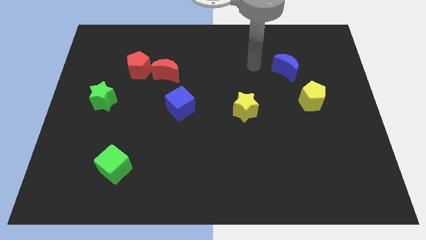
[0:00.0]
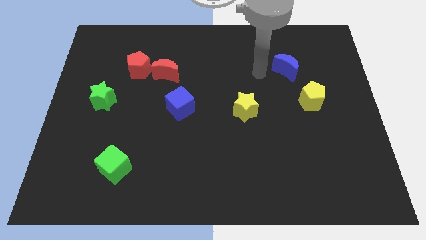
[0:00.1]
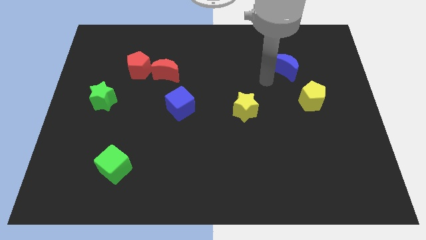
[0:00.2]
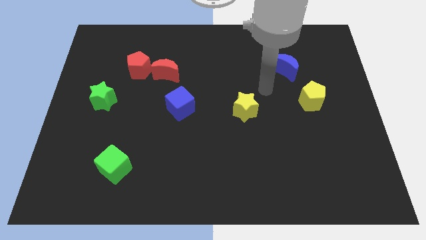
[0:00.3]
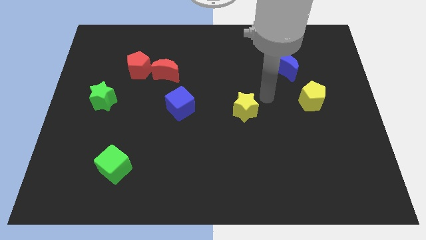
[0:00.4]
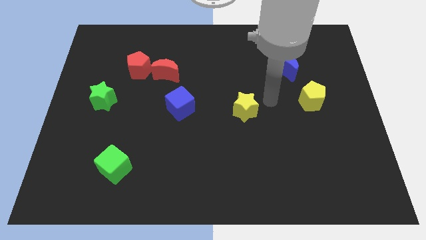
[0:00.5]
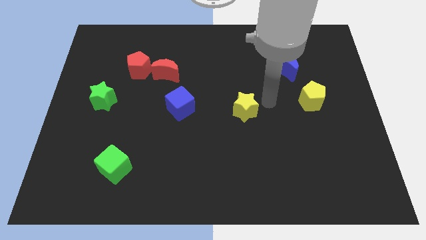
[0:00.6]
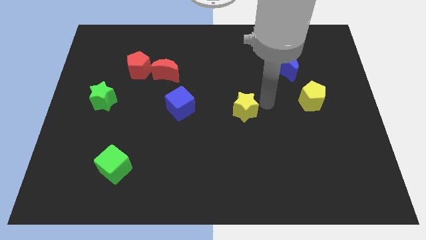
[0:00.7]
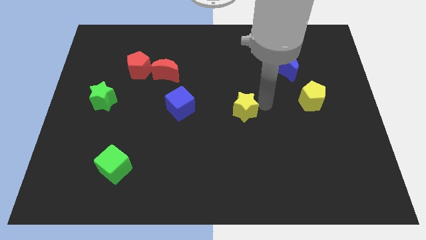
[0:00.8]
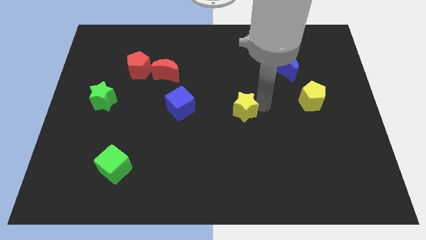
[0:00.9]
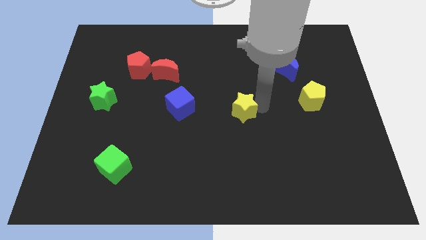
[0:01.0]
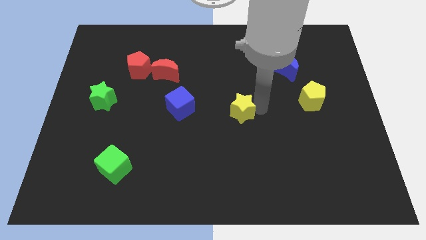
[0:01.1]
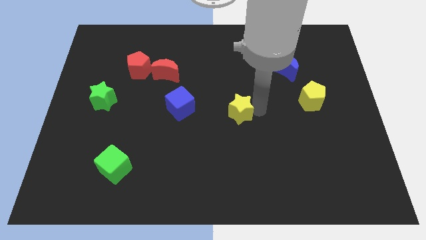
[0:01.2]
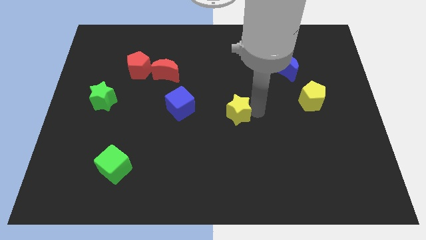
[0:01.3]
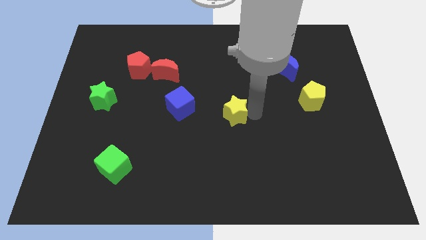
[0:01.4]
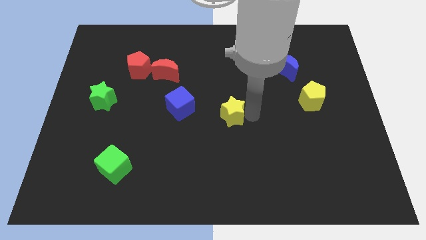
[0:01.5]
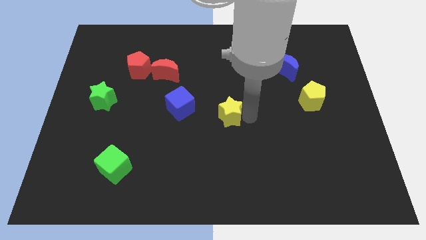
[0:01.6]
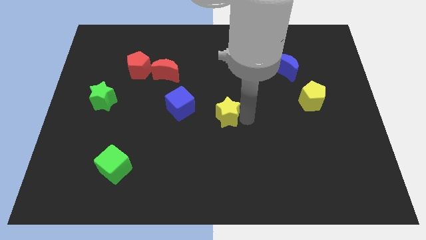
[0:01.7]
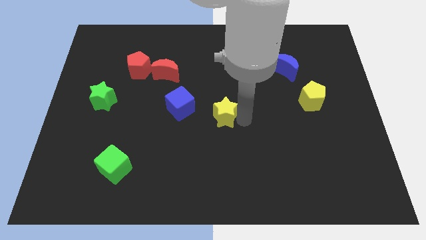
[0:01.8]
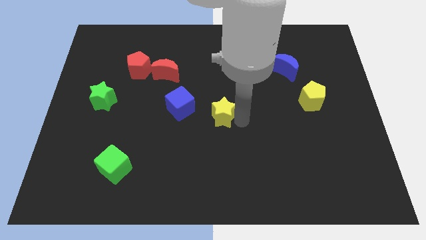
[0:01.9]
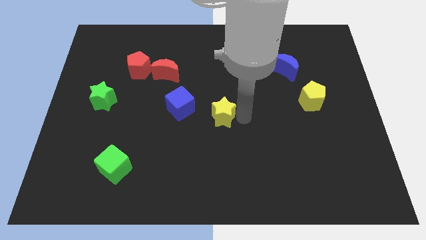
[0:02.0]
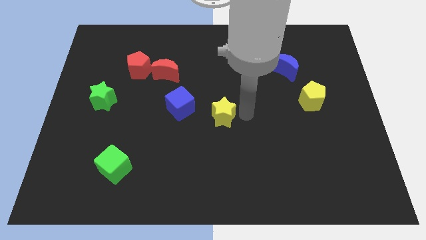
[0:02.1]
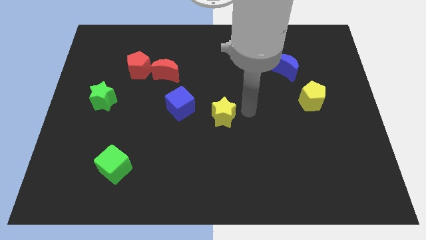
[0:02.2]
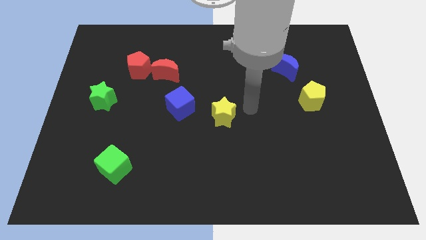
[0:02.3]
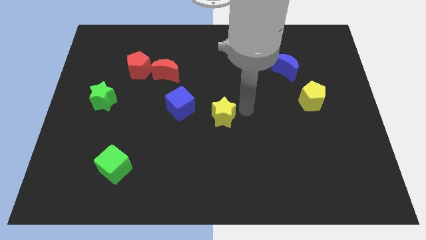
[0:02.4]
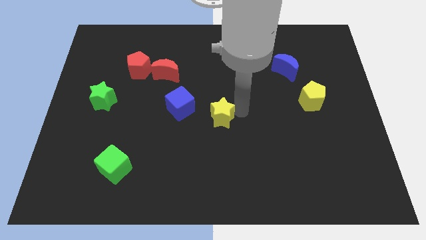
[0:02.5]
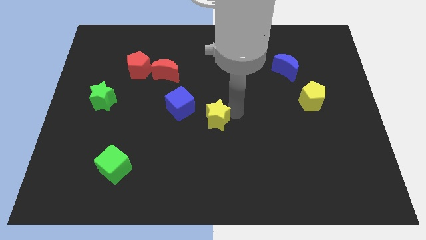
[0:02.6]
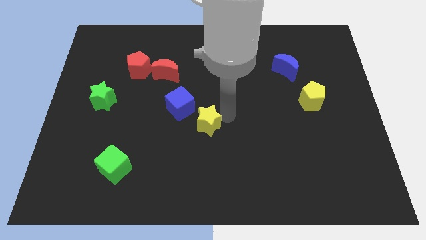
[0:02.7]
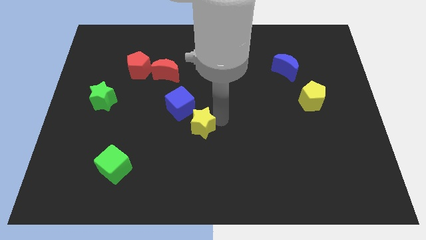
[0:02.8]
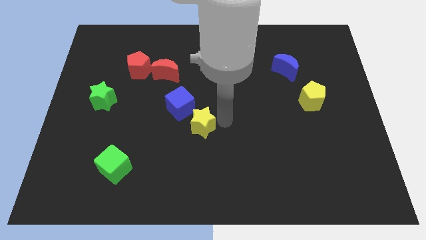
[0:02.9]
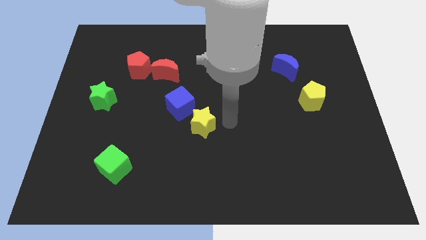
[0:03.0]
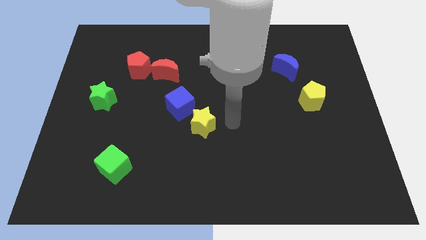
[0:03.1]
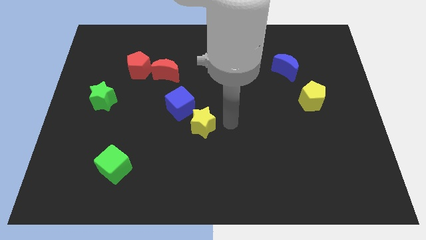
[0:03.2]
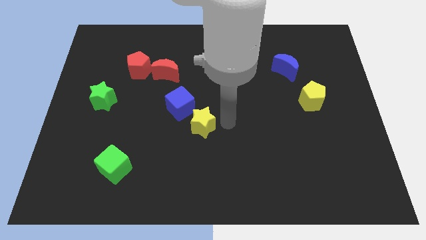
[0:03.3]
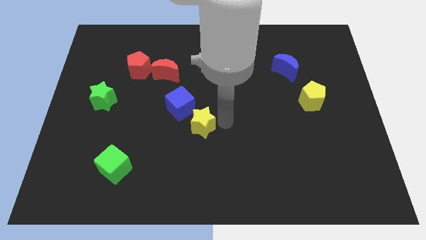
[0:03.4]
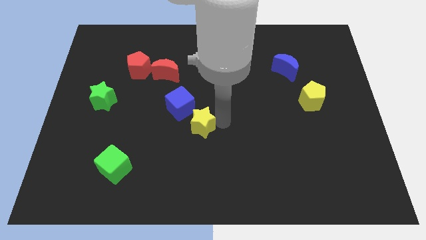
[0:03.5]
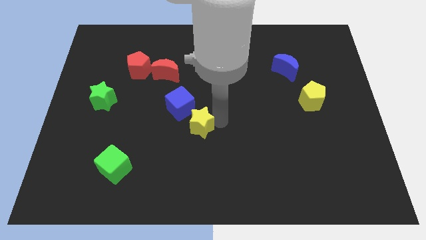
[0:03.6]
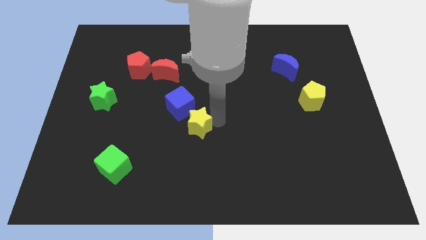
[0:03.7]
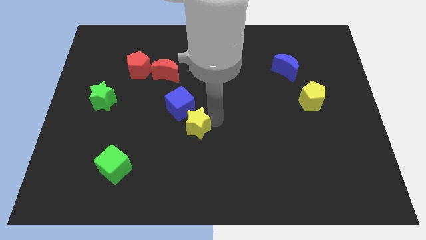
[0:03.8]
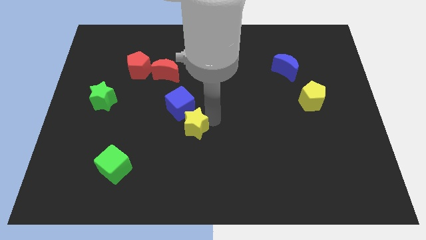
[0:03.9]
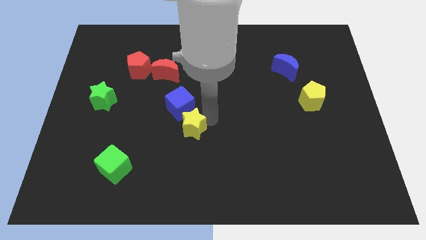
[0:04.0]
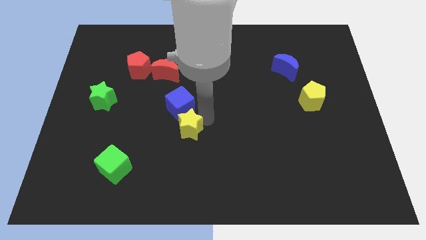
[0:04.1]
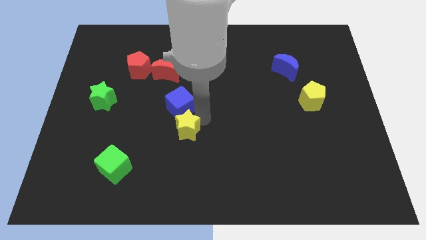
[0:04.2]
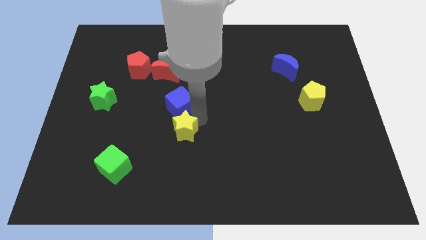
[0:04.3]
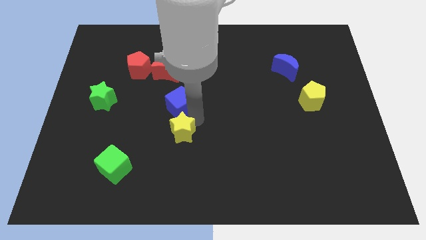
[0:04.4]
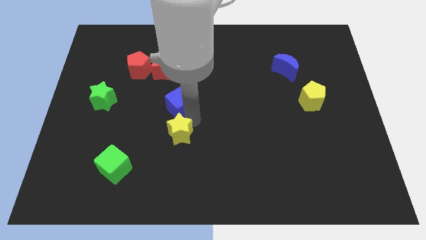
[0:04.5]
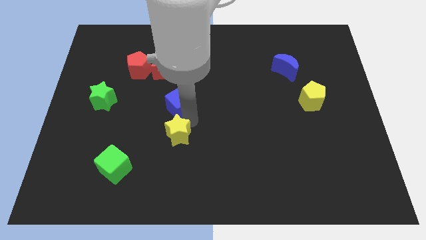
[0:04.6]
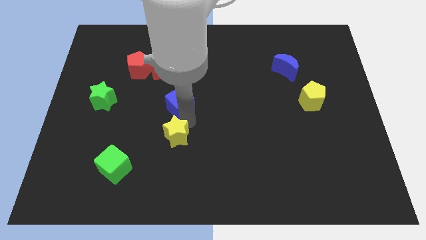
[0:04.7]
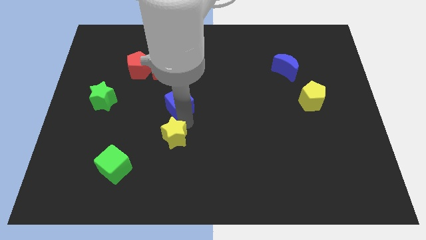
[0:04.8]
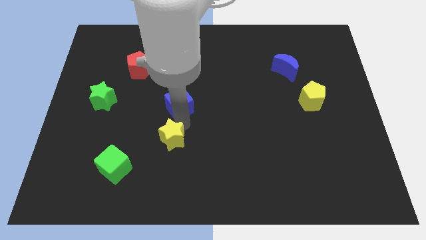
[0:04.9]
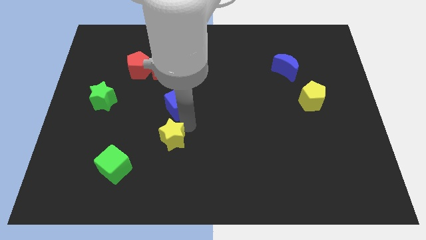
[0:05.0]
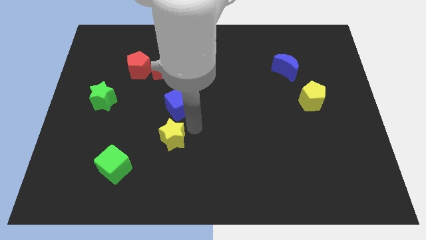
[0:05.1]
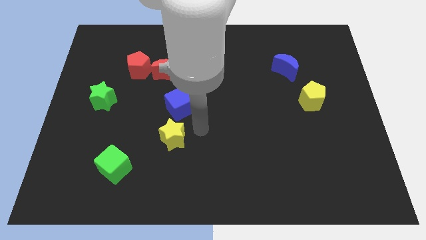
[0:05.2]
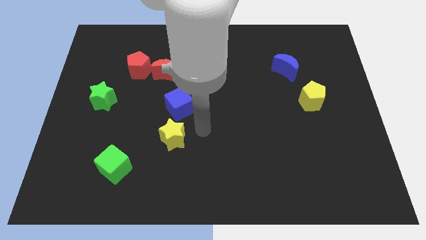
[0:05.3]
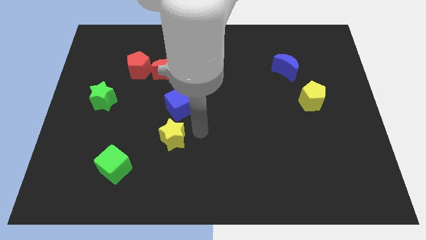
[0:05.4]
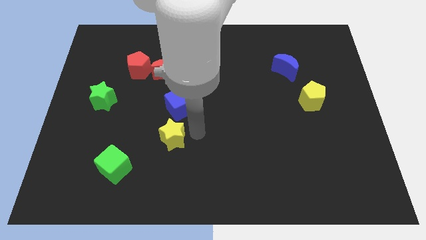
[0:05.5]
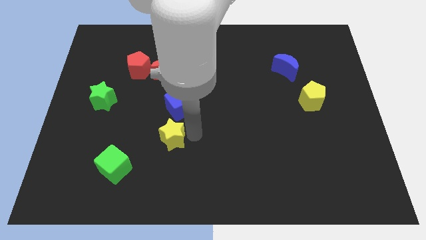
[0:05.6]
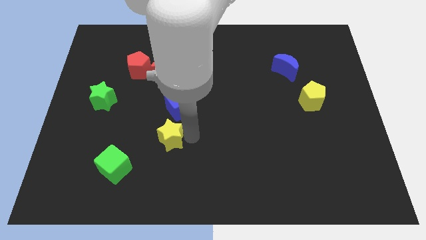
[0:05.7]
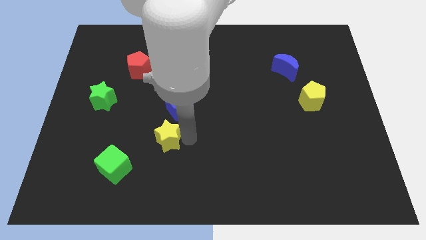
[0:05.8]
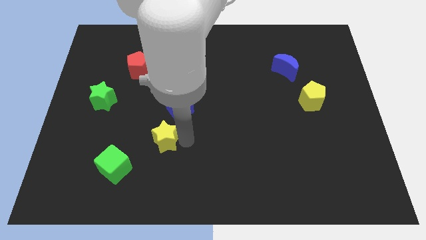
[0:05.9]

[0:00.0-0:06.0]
put the yellow star diagonally up and to the right of the green cube
